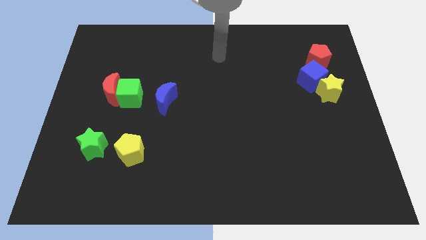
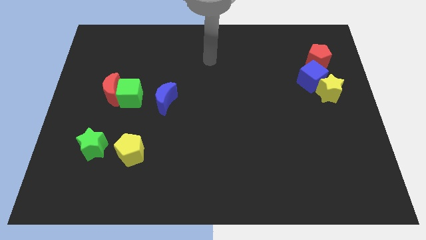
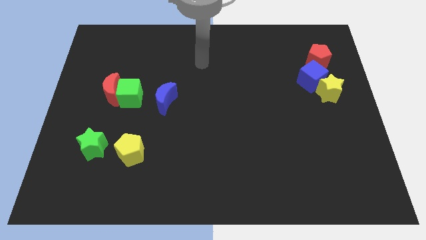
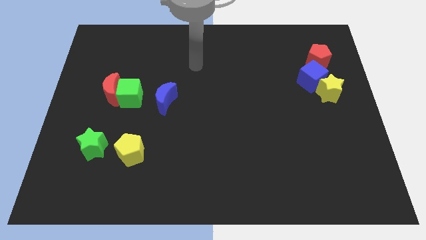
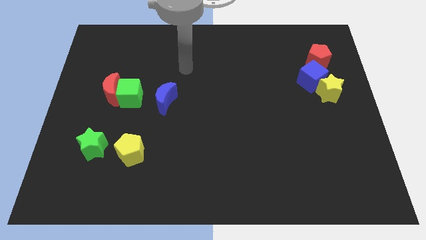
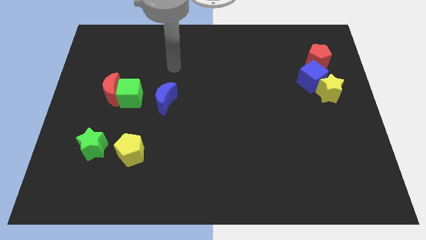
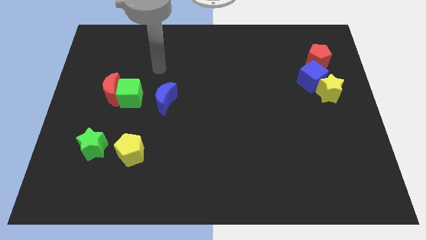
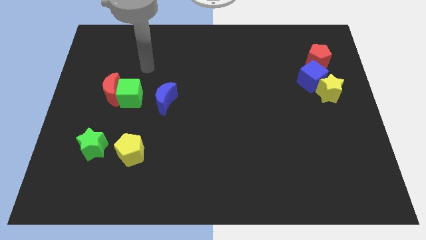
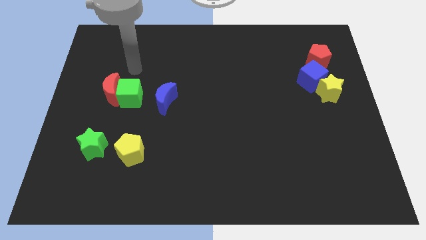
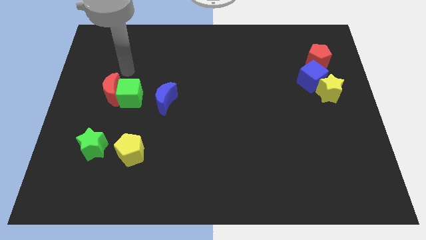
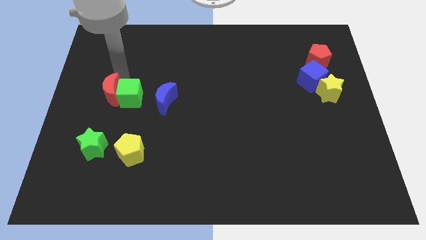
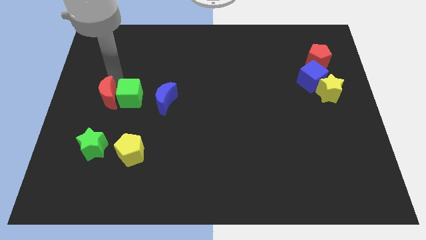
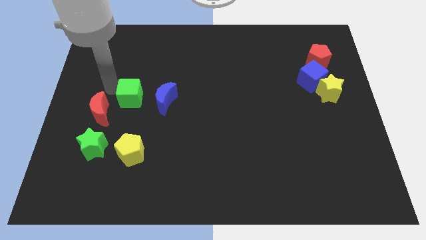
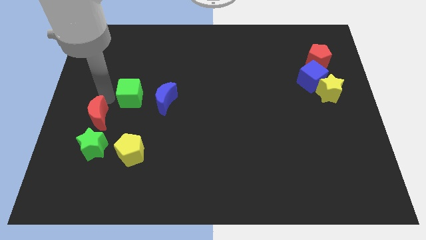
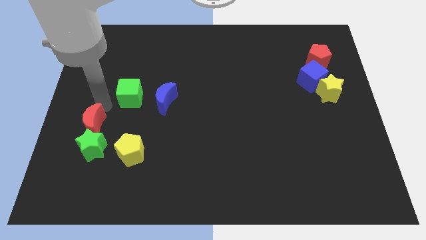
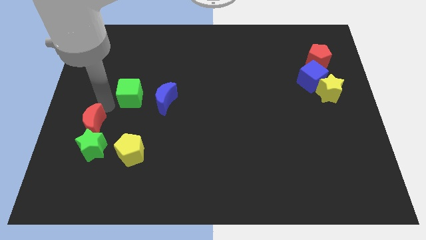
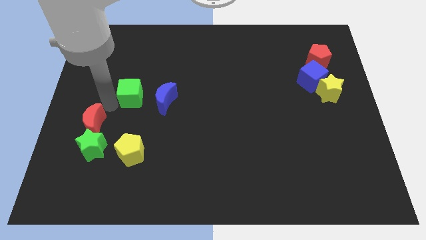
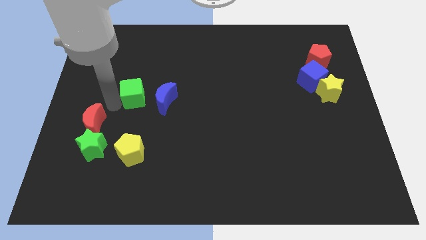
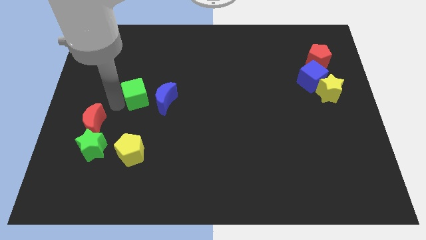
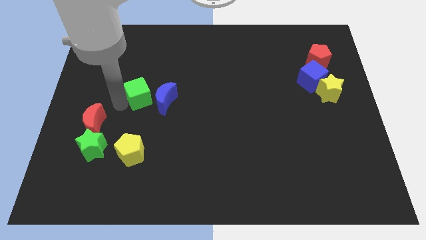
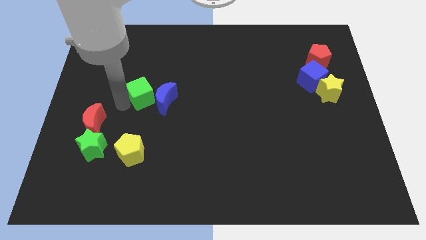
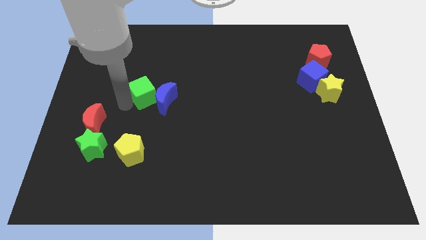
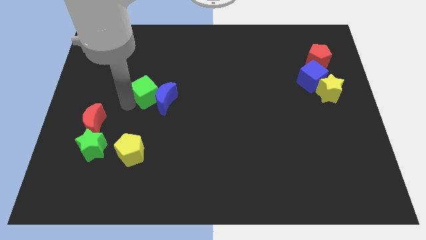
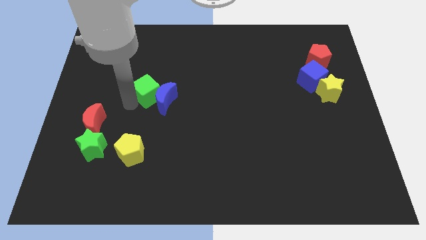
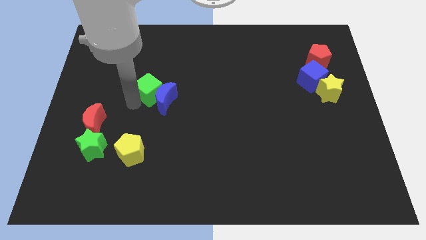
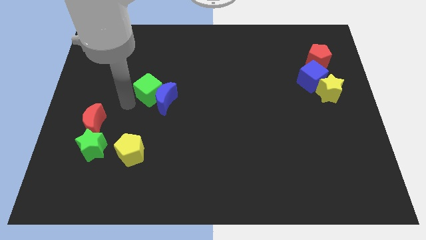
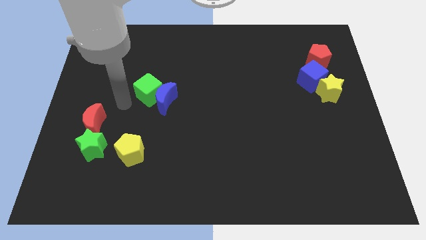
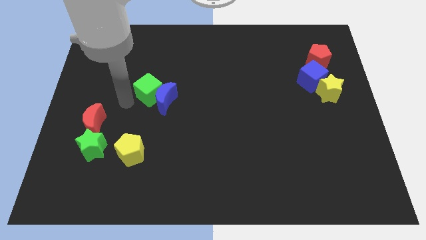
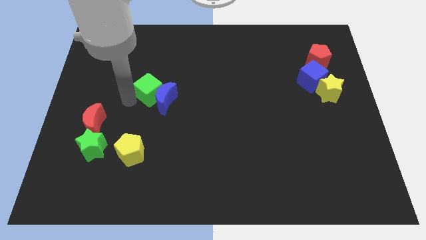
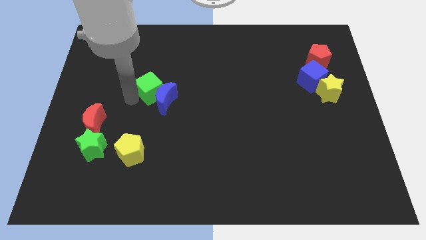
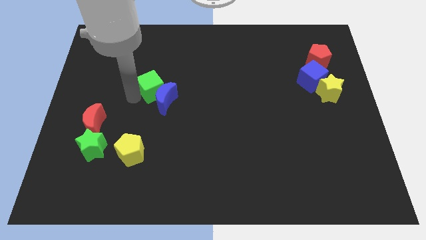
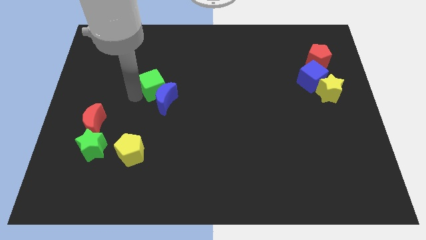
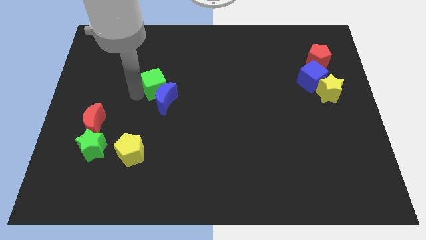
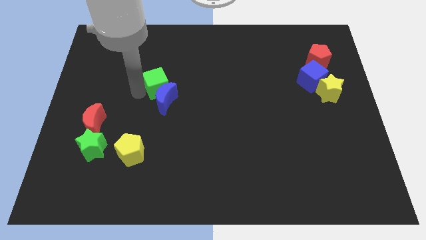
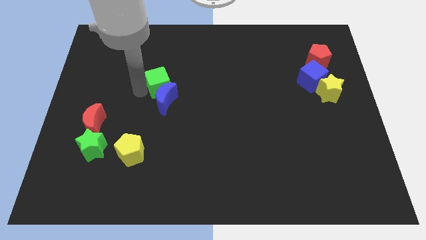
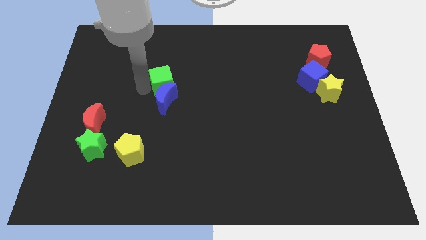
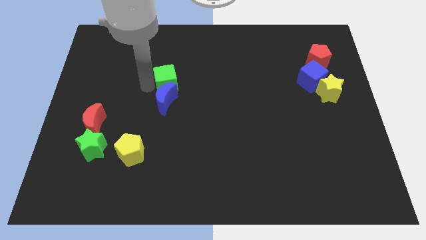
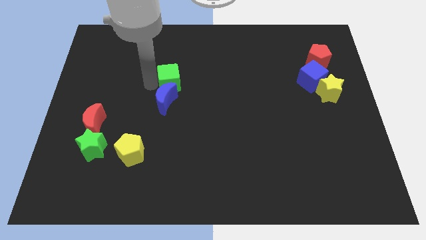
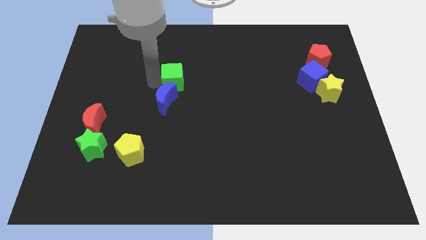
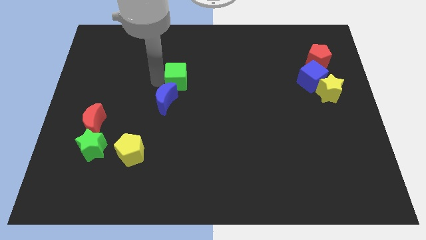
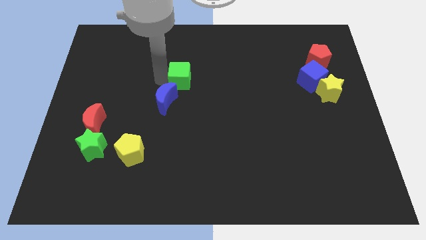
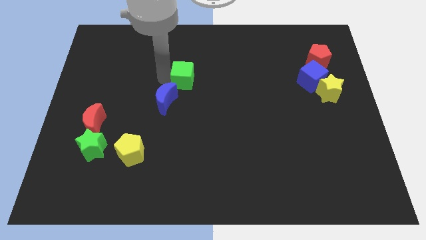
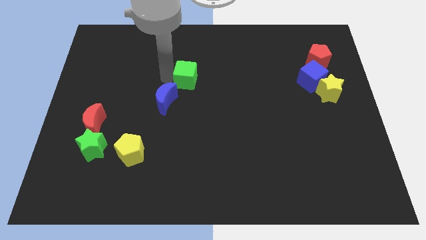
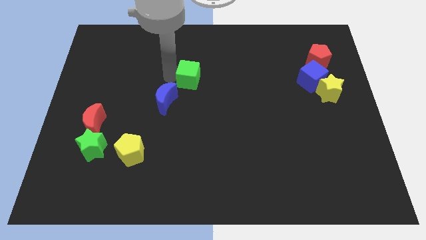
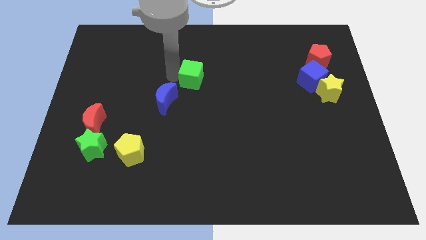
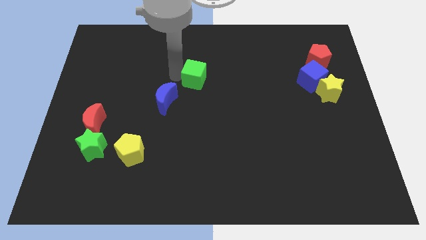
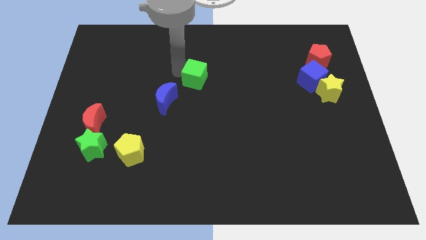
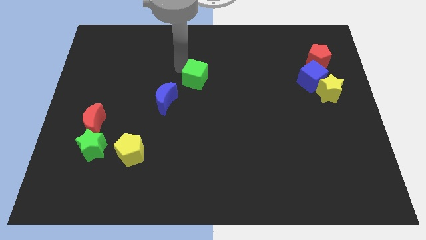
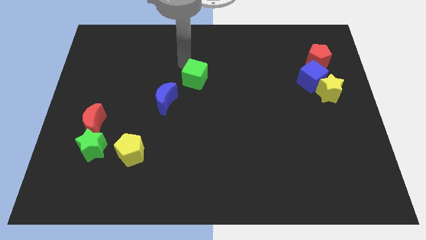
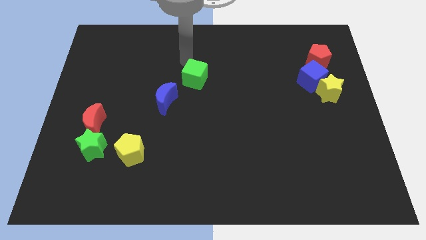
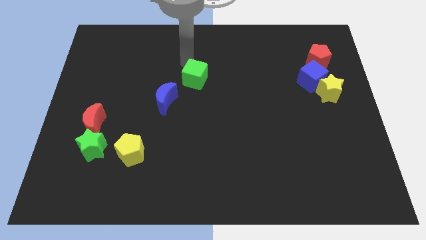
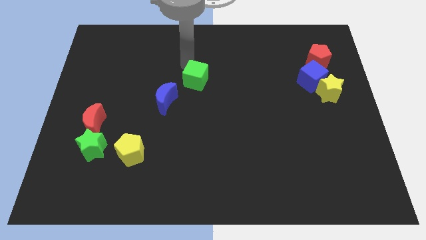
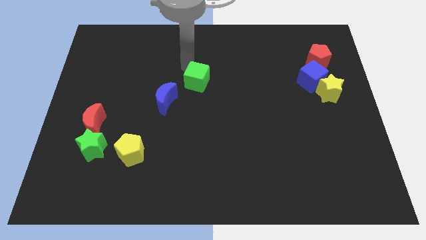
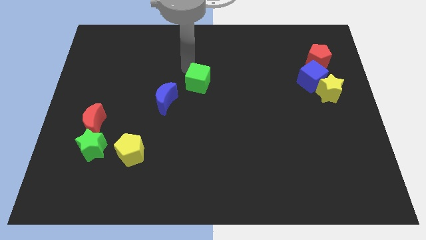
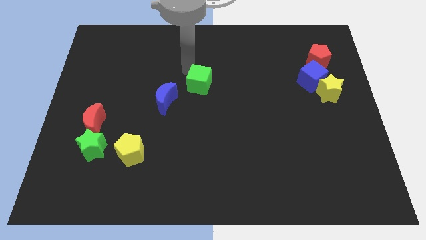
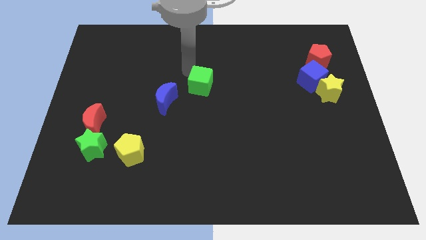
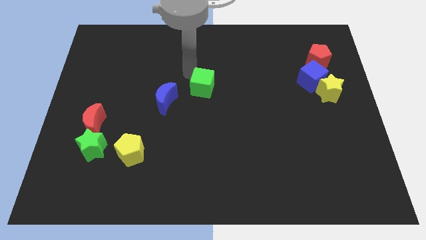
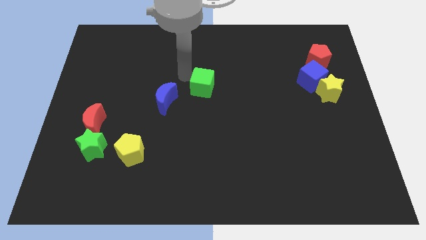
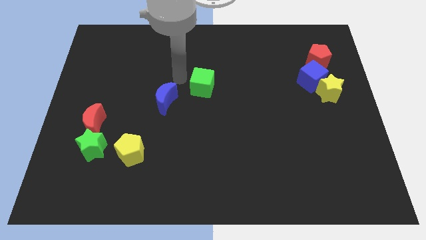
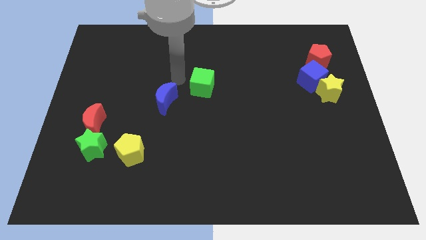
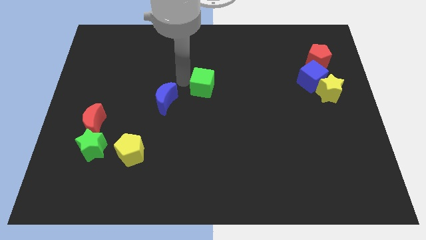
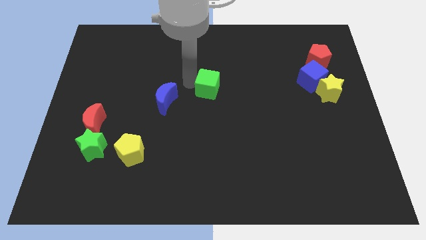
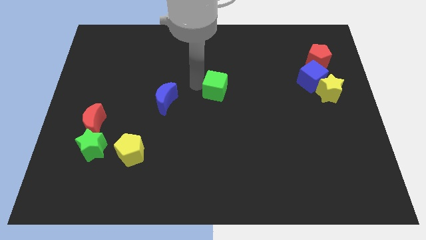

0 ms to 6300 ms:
push the green cube right

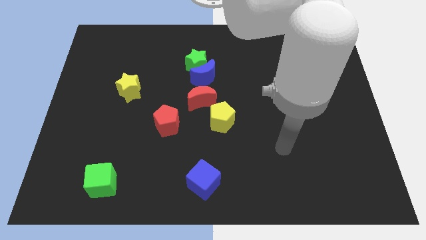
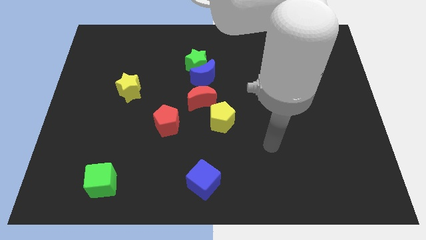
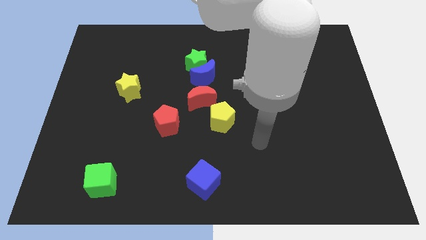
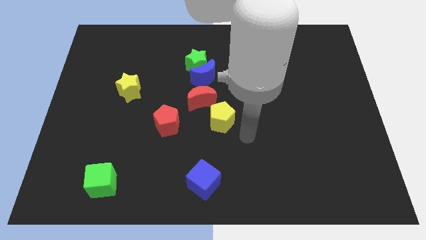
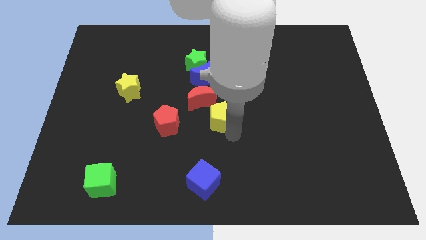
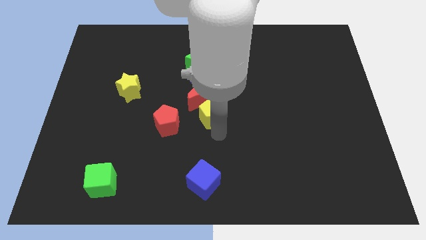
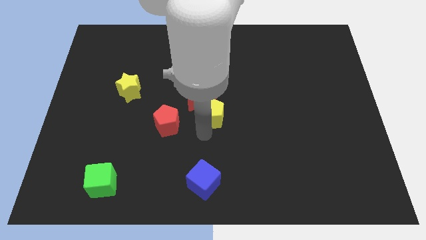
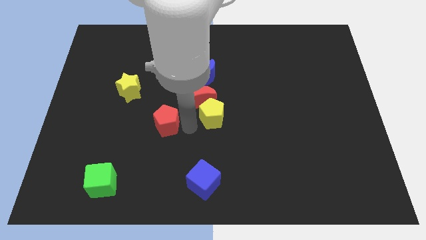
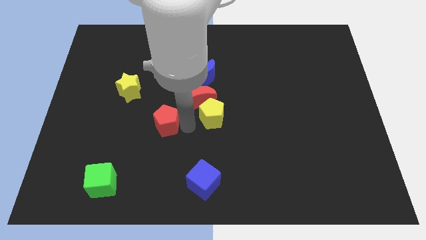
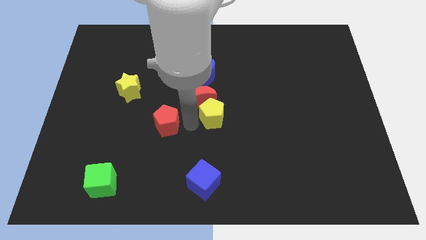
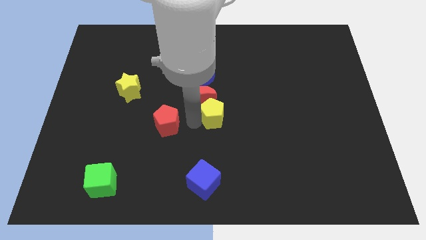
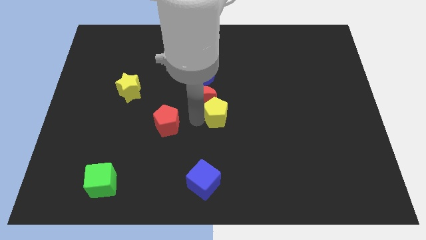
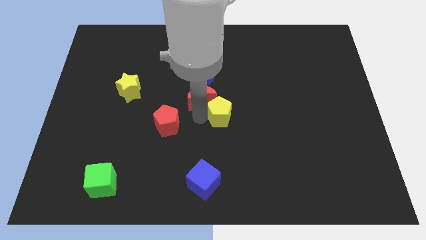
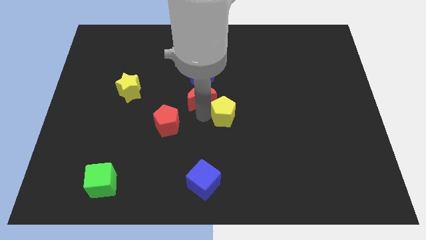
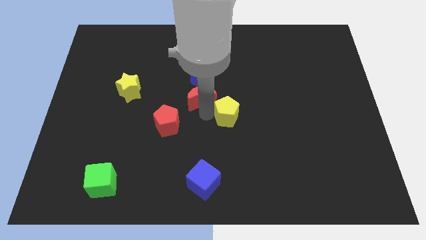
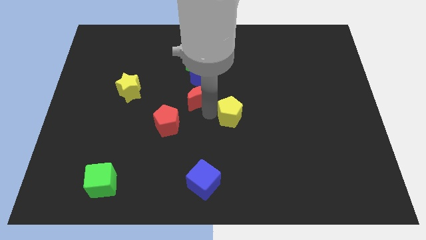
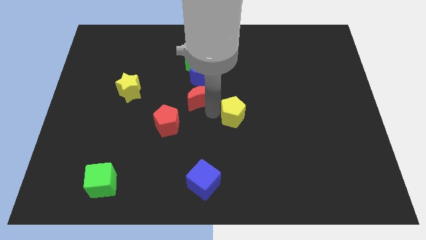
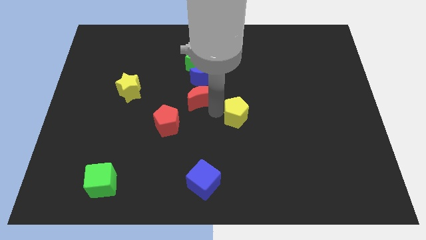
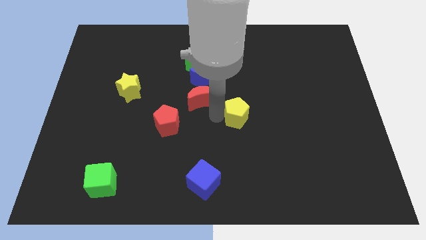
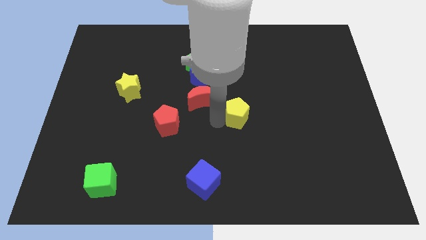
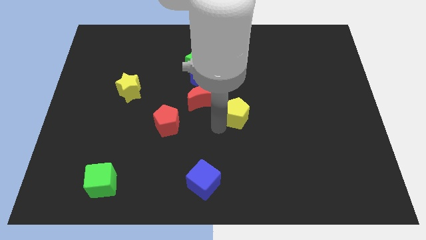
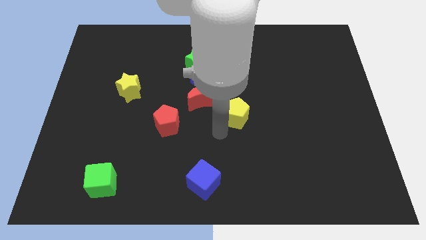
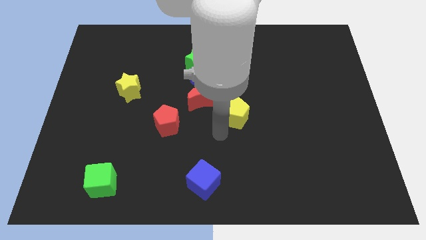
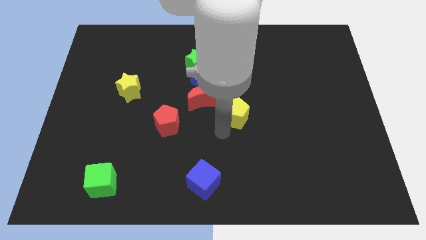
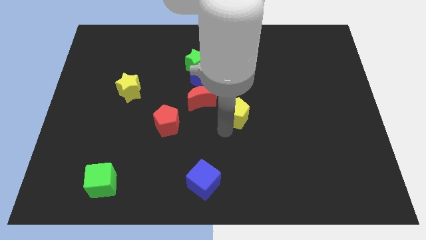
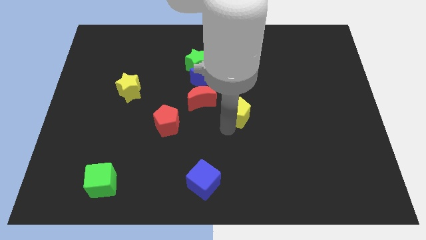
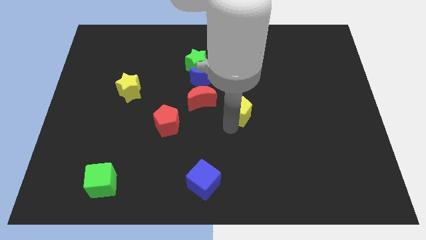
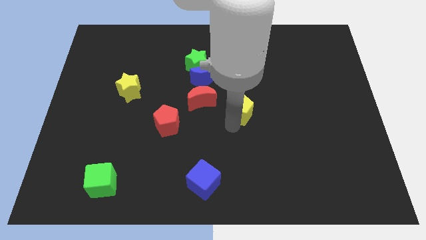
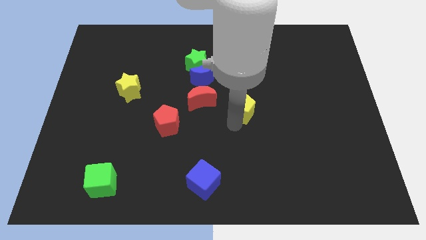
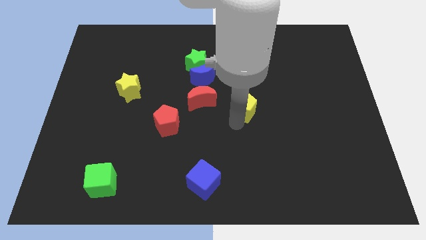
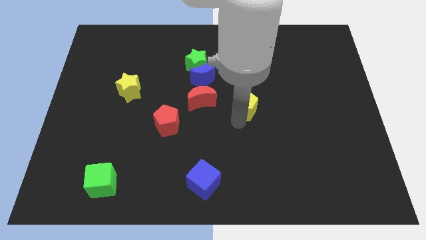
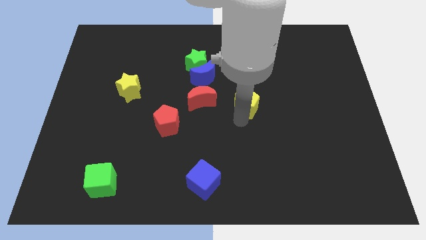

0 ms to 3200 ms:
slightly slide the yellow pentagon upwards and to the right
